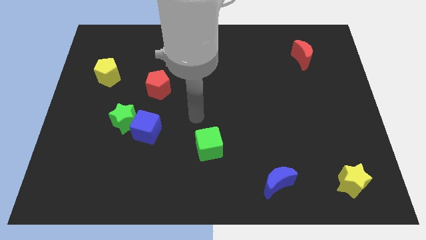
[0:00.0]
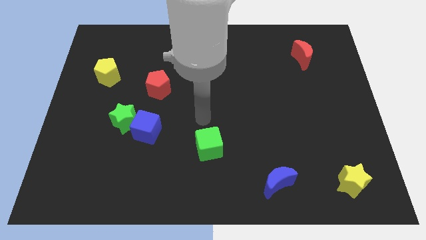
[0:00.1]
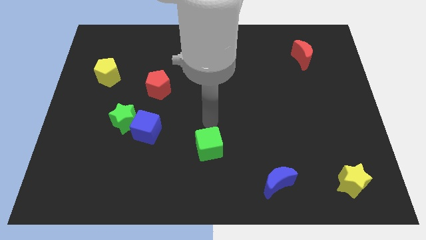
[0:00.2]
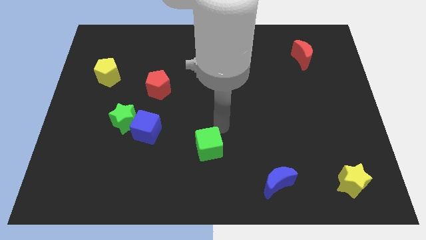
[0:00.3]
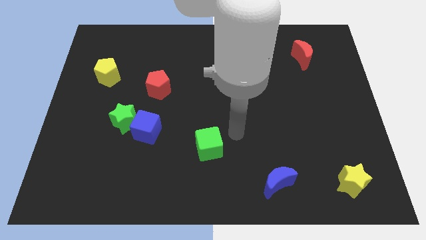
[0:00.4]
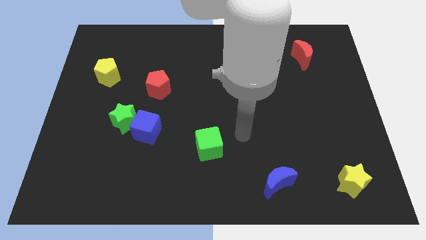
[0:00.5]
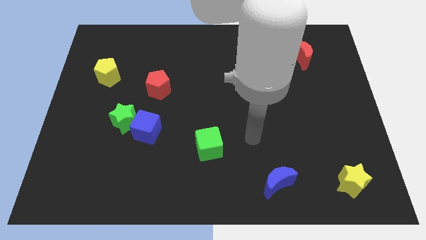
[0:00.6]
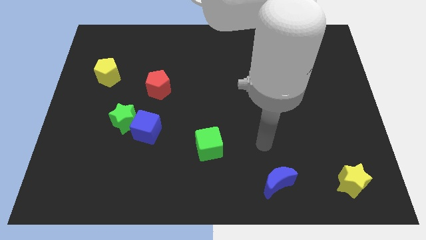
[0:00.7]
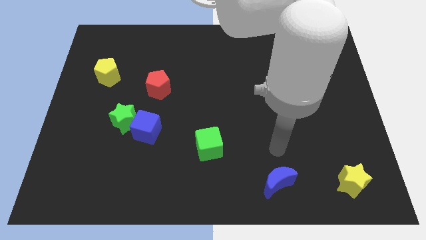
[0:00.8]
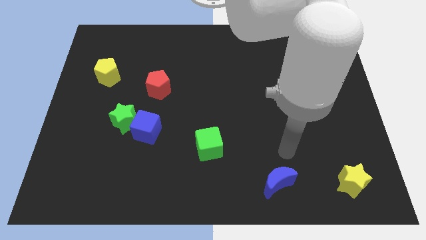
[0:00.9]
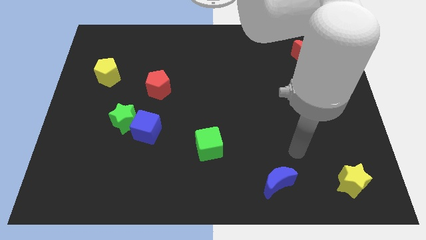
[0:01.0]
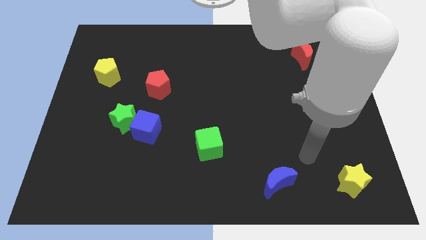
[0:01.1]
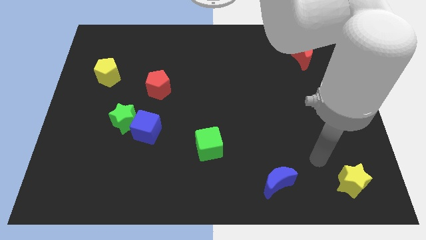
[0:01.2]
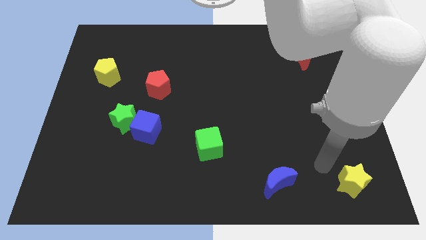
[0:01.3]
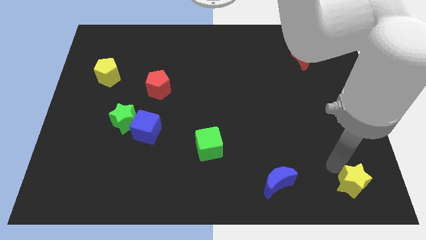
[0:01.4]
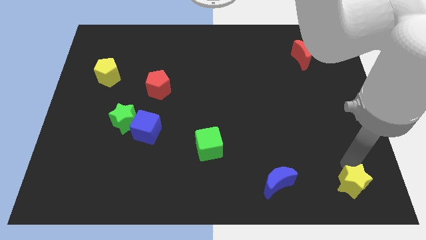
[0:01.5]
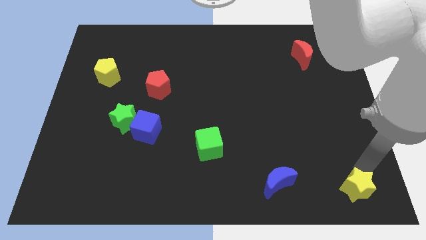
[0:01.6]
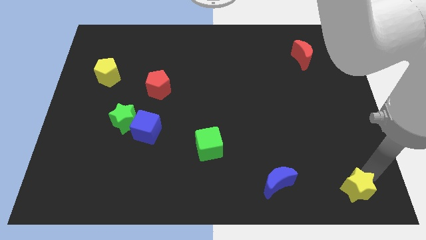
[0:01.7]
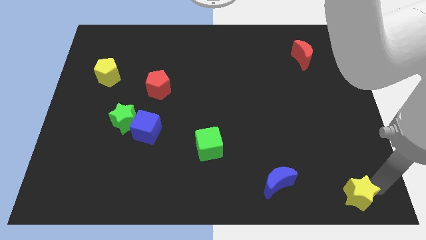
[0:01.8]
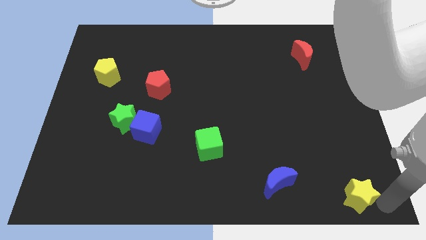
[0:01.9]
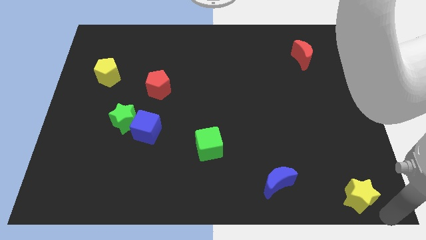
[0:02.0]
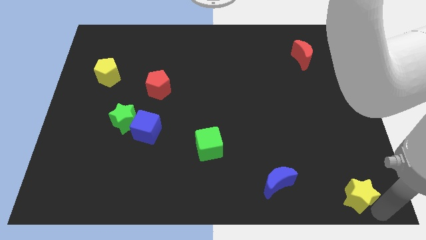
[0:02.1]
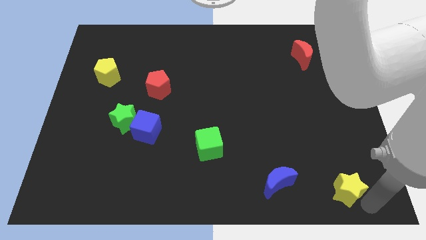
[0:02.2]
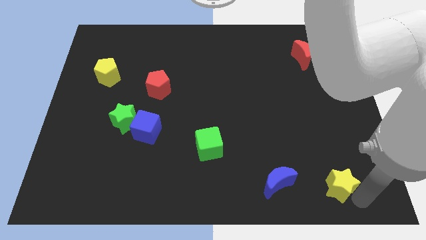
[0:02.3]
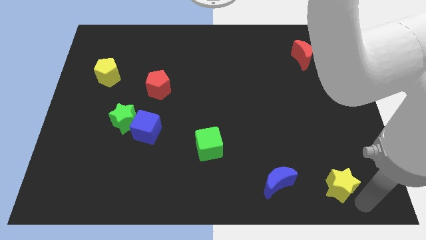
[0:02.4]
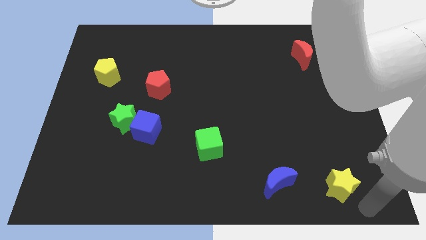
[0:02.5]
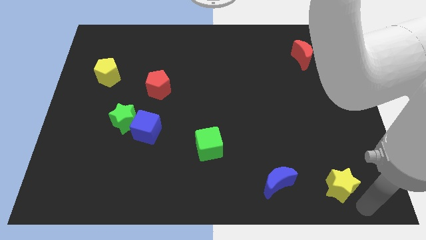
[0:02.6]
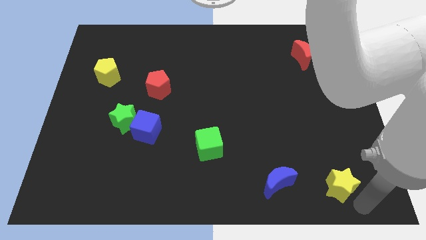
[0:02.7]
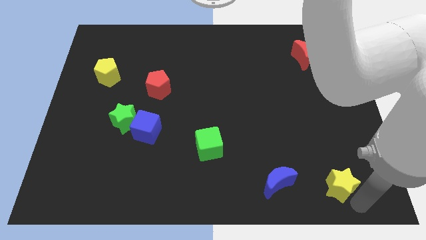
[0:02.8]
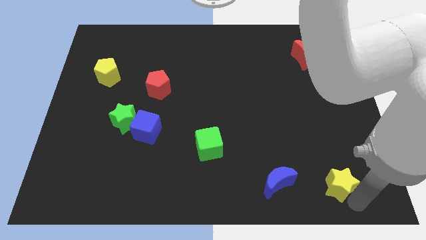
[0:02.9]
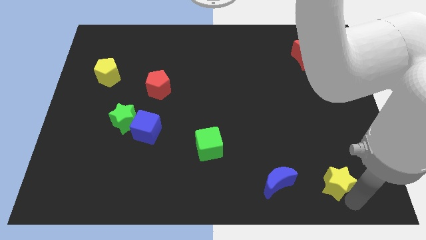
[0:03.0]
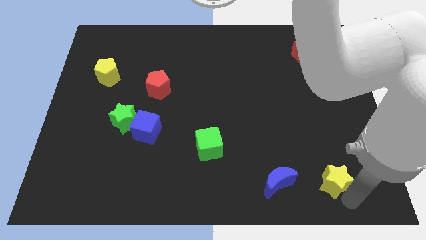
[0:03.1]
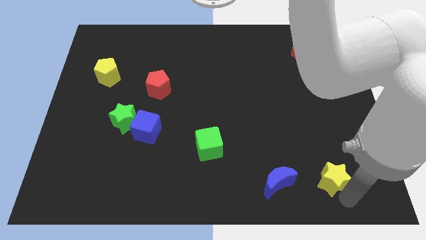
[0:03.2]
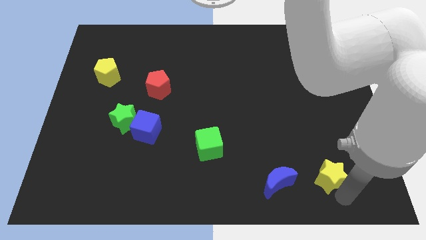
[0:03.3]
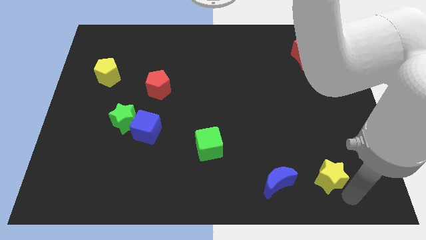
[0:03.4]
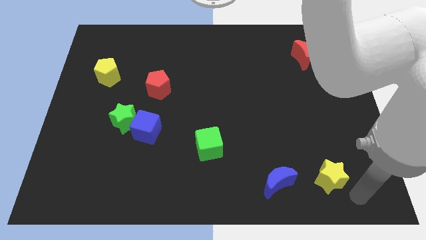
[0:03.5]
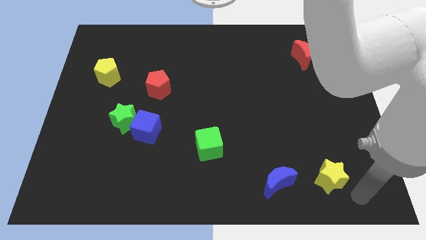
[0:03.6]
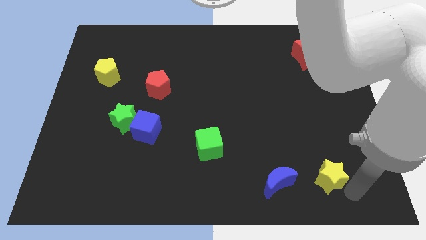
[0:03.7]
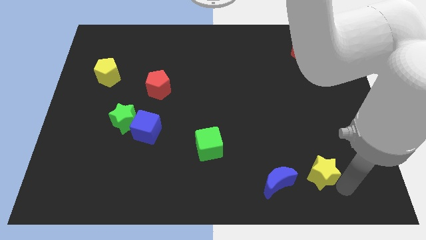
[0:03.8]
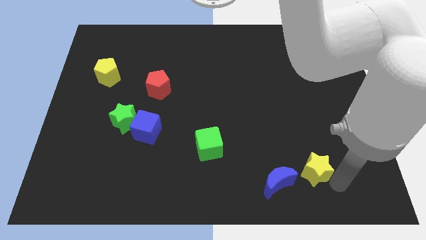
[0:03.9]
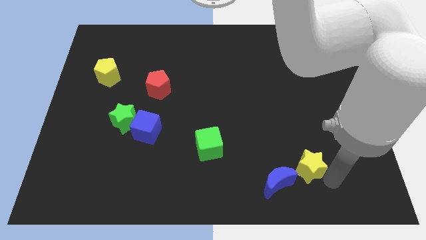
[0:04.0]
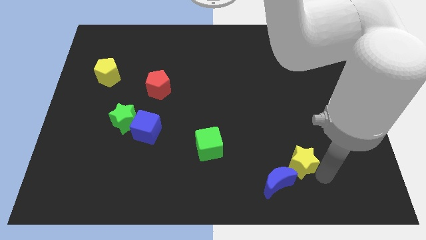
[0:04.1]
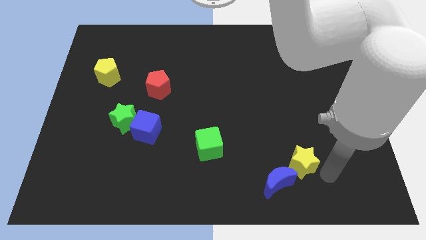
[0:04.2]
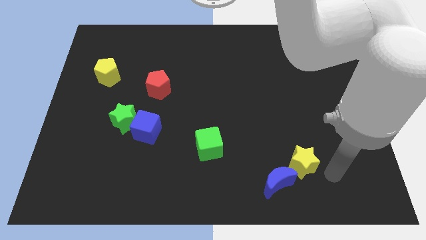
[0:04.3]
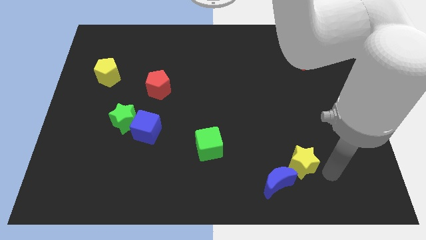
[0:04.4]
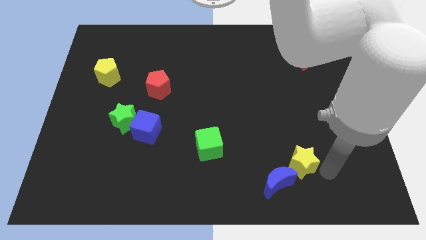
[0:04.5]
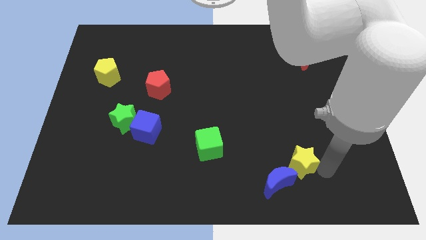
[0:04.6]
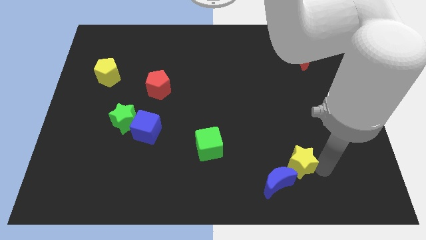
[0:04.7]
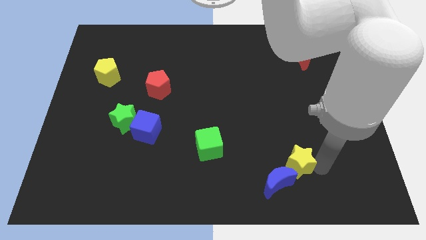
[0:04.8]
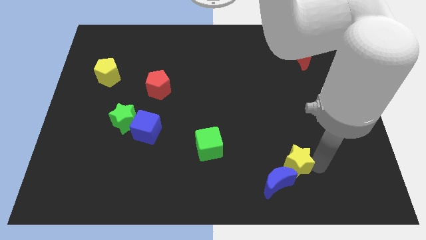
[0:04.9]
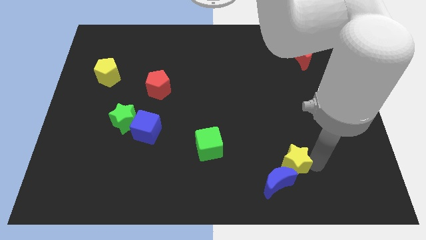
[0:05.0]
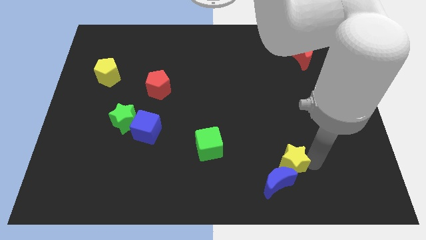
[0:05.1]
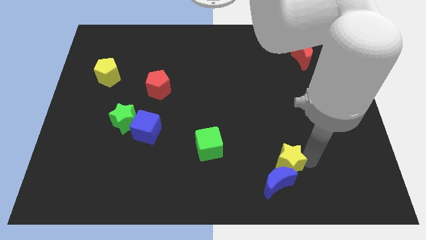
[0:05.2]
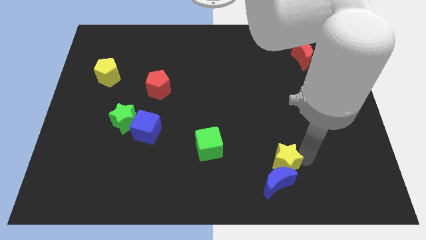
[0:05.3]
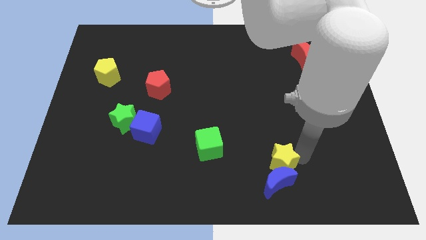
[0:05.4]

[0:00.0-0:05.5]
move the yellow star diagonally up and to the left of the blue moon

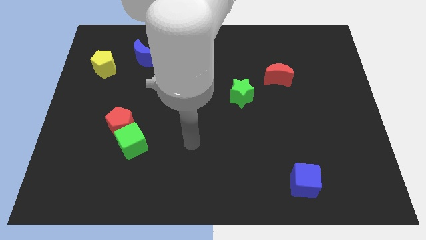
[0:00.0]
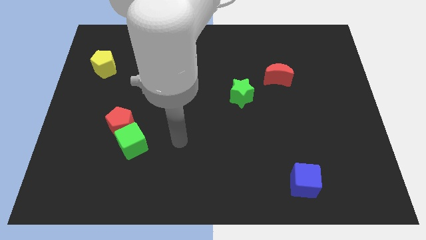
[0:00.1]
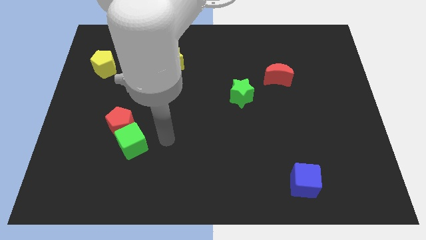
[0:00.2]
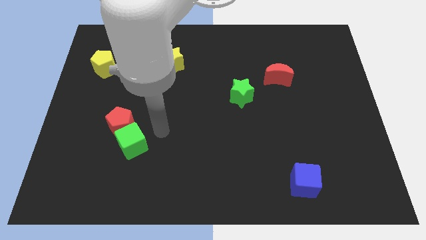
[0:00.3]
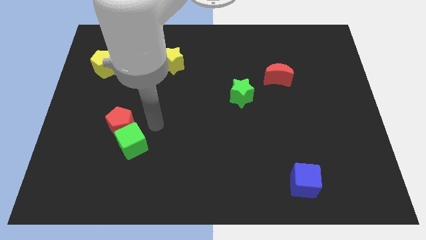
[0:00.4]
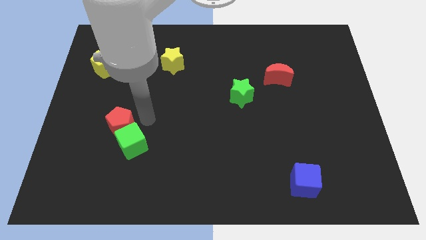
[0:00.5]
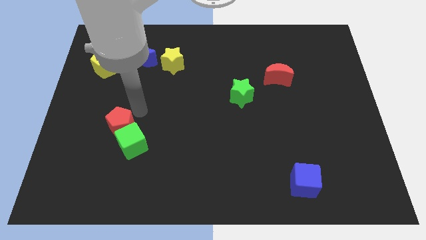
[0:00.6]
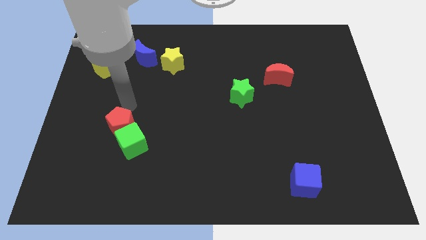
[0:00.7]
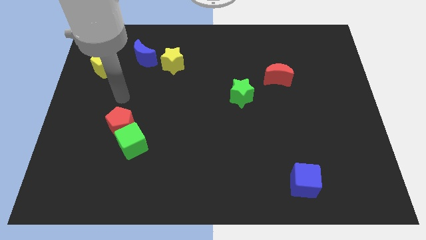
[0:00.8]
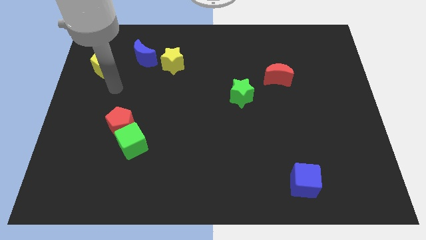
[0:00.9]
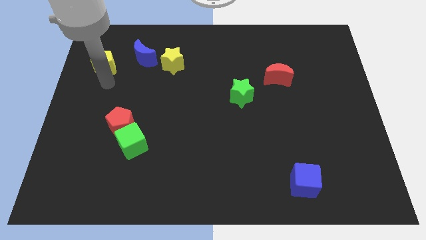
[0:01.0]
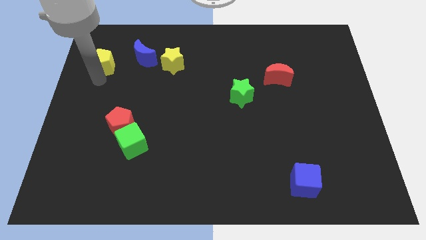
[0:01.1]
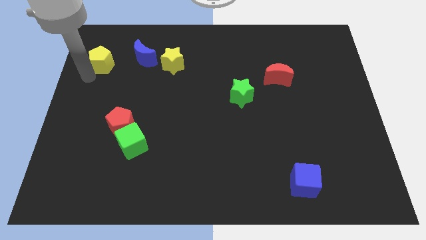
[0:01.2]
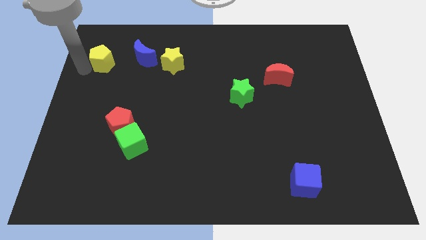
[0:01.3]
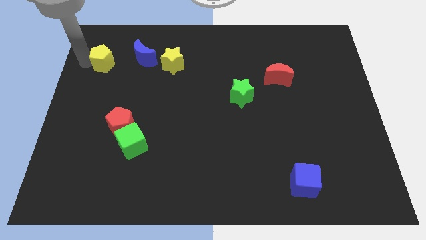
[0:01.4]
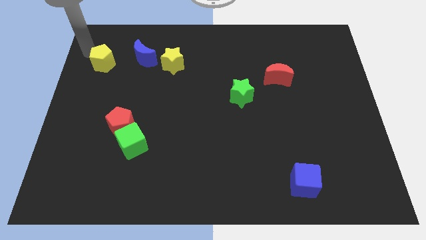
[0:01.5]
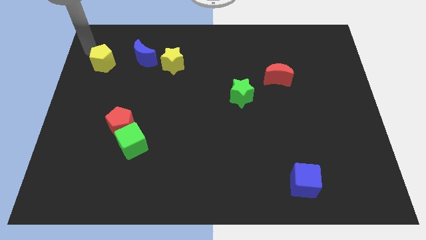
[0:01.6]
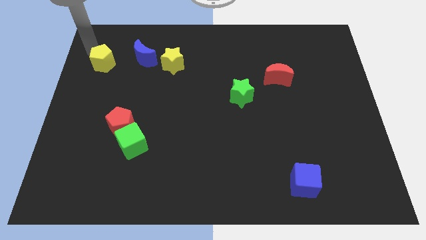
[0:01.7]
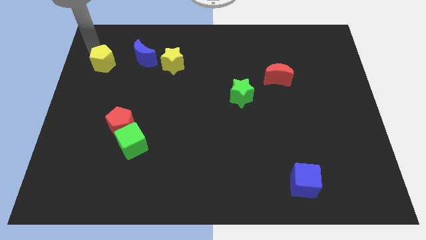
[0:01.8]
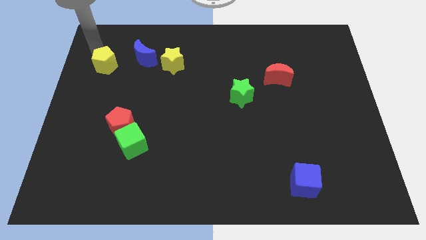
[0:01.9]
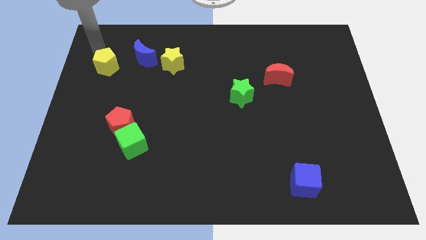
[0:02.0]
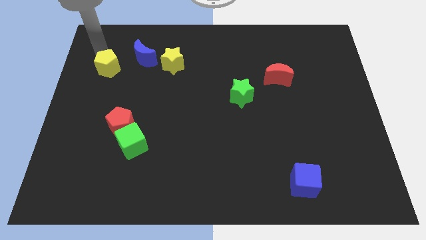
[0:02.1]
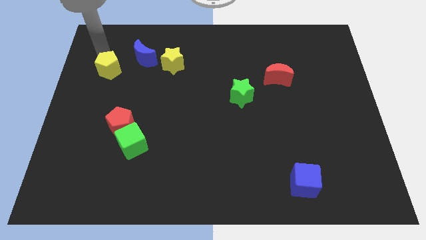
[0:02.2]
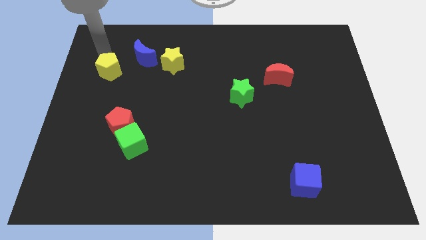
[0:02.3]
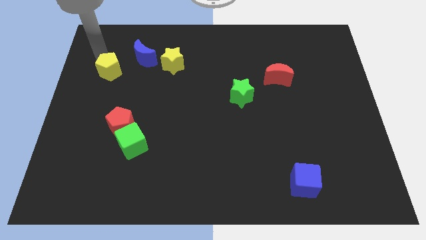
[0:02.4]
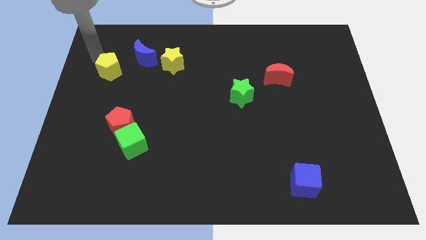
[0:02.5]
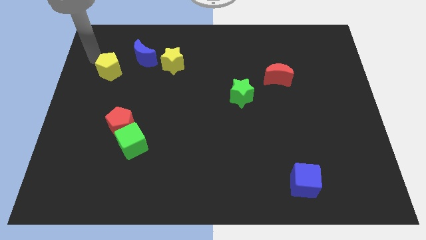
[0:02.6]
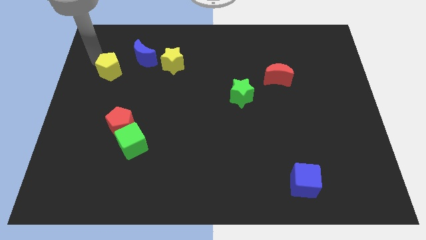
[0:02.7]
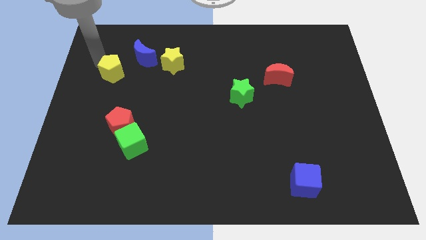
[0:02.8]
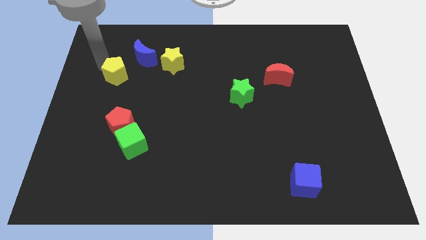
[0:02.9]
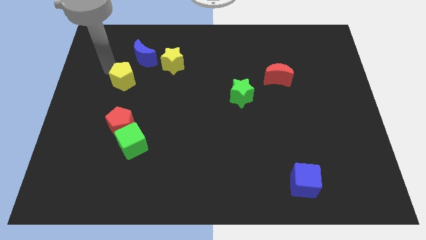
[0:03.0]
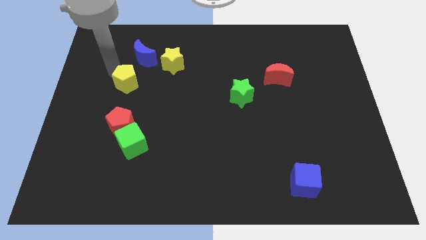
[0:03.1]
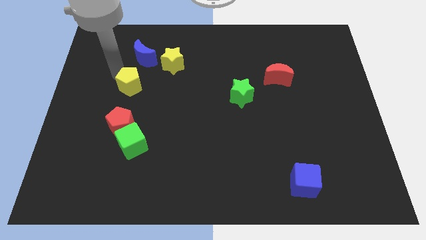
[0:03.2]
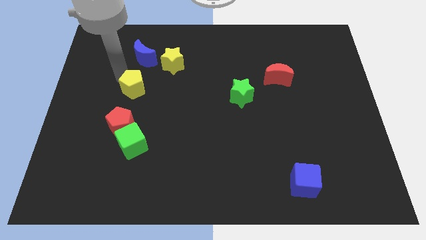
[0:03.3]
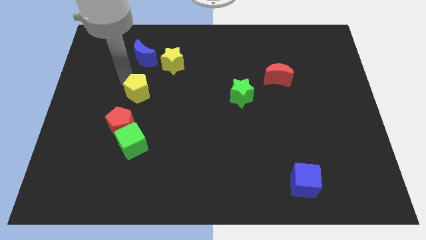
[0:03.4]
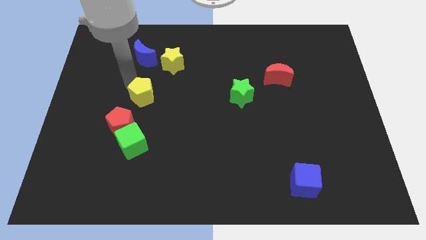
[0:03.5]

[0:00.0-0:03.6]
push the yellow pentagon to the top right side of the red pentagon
